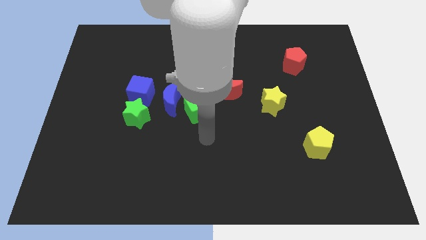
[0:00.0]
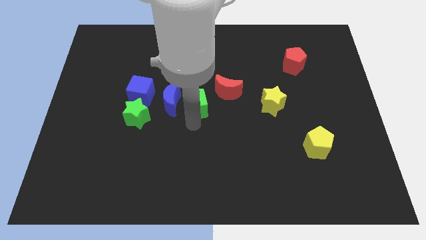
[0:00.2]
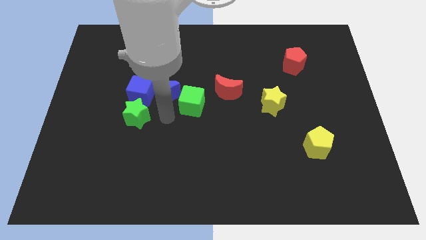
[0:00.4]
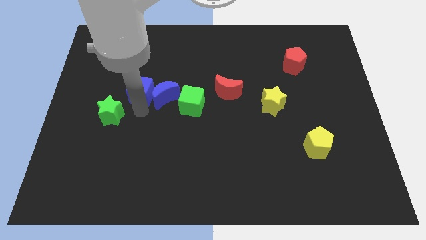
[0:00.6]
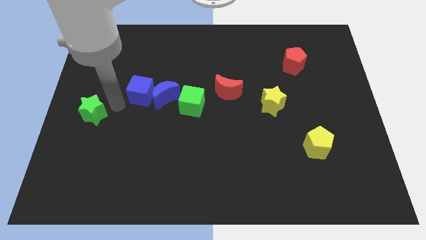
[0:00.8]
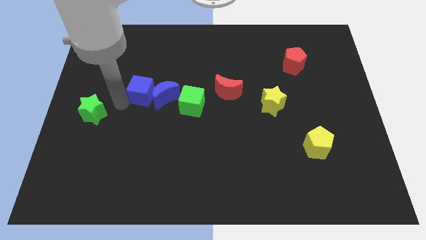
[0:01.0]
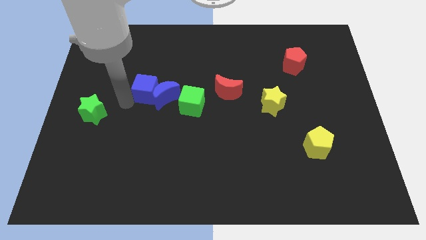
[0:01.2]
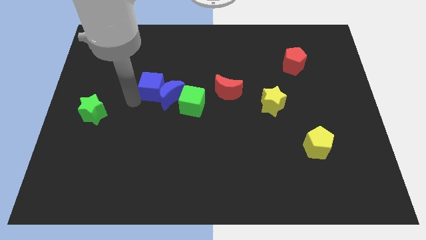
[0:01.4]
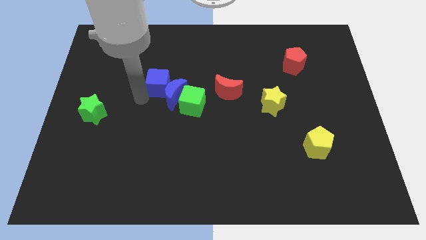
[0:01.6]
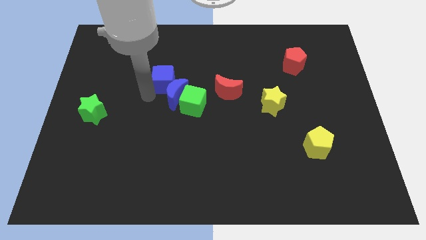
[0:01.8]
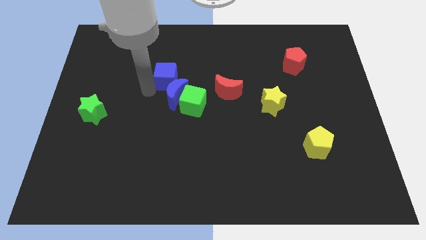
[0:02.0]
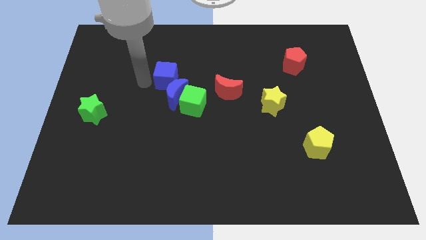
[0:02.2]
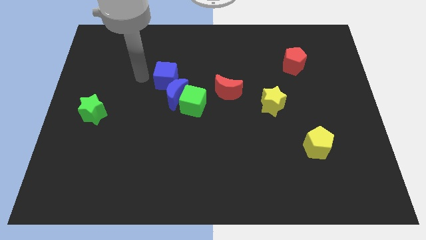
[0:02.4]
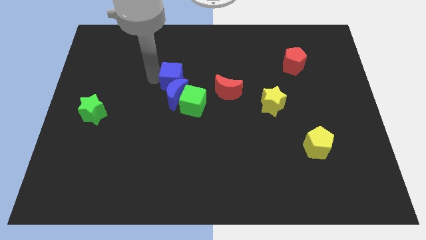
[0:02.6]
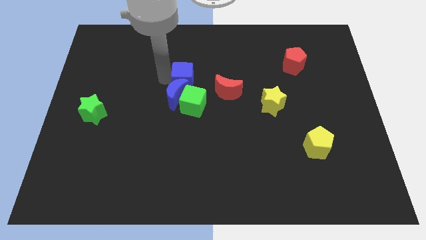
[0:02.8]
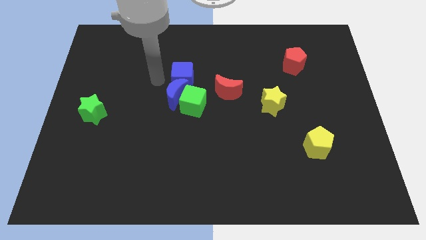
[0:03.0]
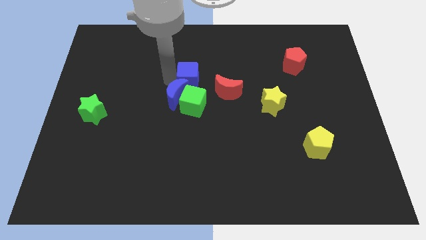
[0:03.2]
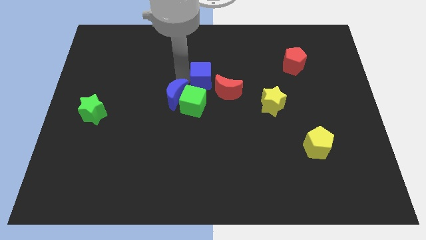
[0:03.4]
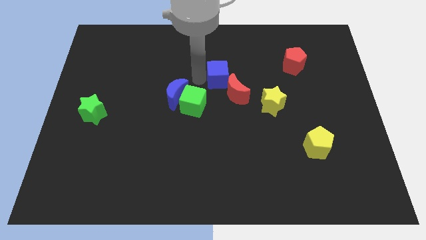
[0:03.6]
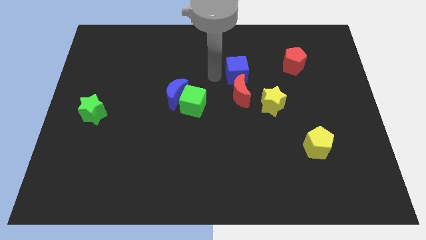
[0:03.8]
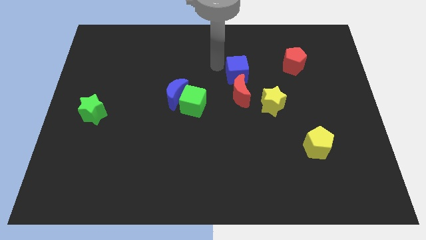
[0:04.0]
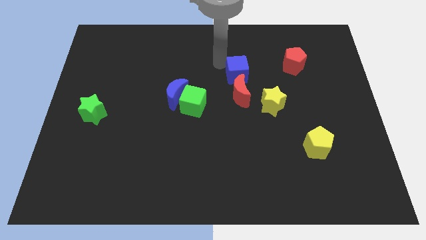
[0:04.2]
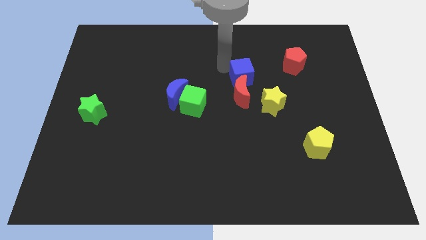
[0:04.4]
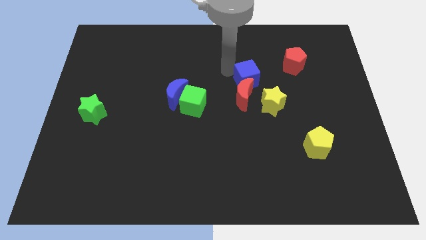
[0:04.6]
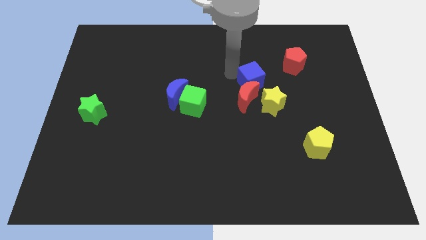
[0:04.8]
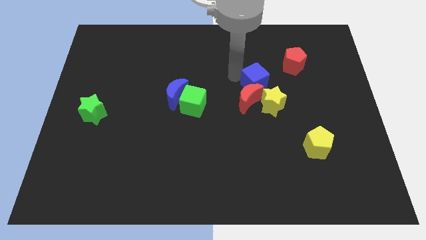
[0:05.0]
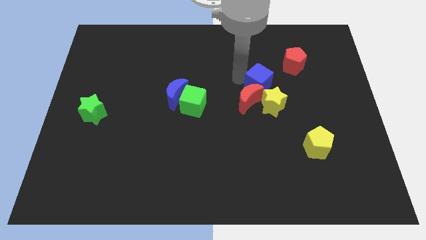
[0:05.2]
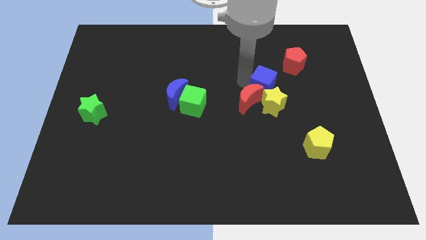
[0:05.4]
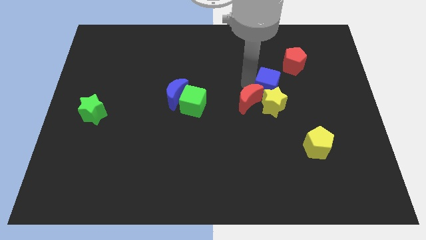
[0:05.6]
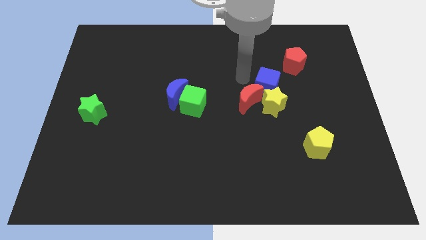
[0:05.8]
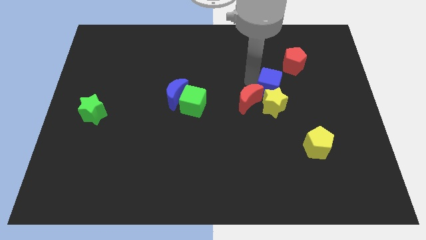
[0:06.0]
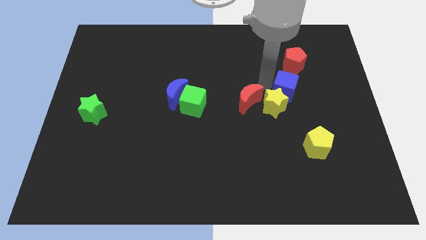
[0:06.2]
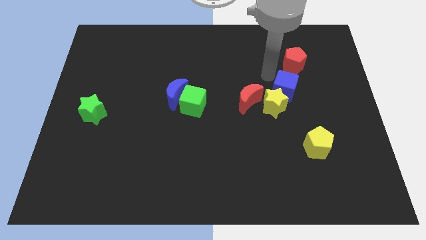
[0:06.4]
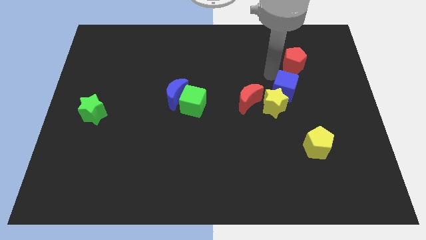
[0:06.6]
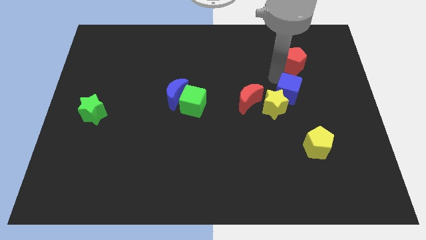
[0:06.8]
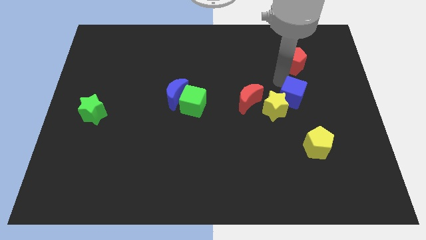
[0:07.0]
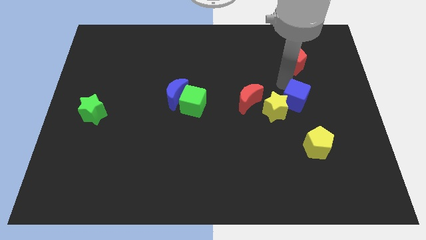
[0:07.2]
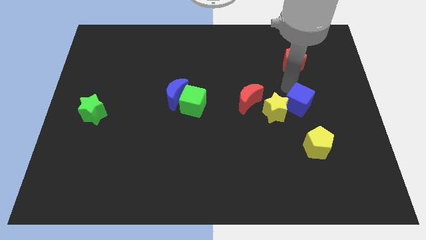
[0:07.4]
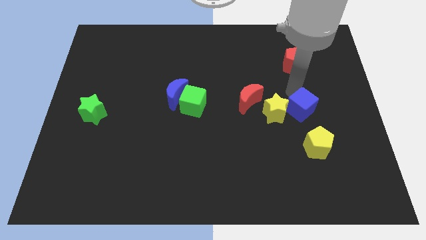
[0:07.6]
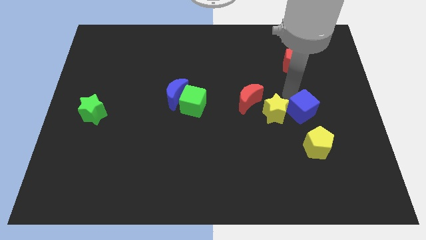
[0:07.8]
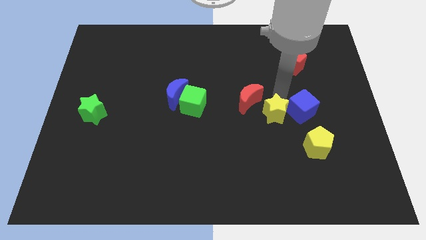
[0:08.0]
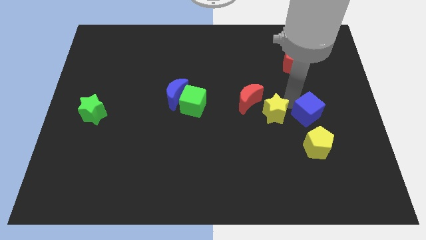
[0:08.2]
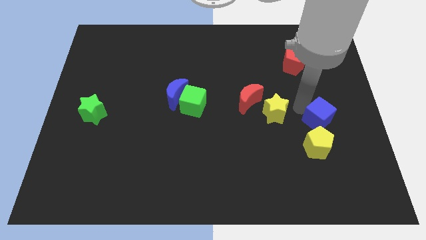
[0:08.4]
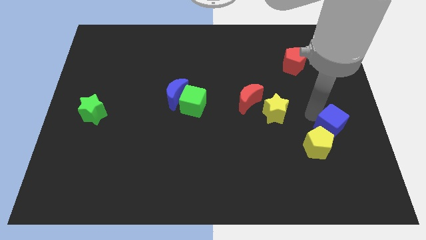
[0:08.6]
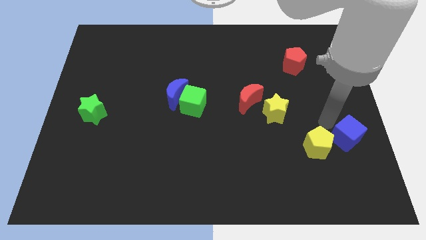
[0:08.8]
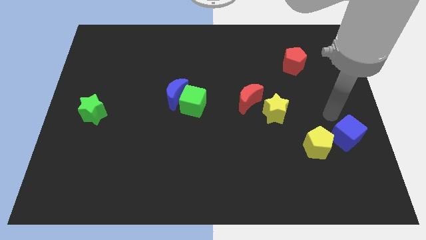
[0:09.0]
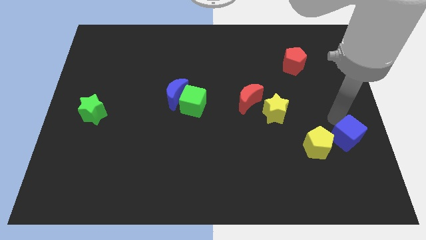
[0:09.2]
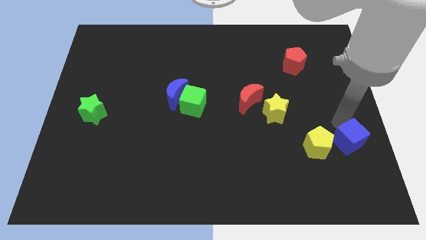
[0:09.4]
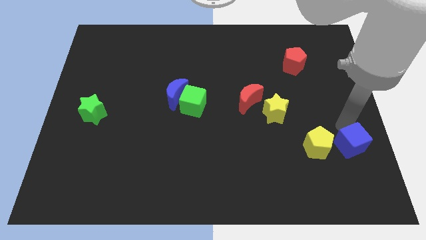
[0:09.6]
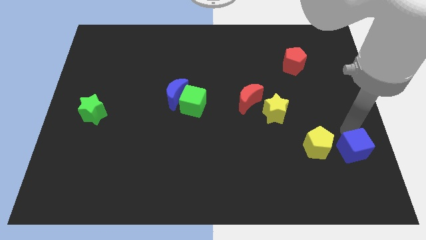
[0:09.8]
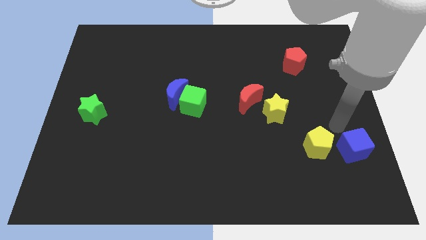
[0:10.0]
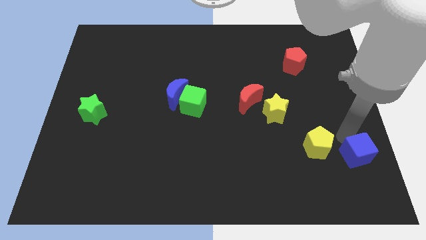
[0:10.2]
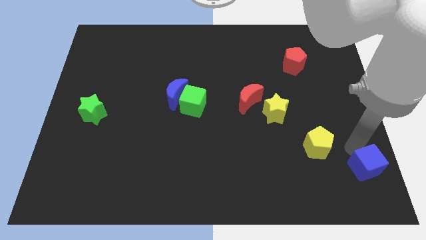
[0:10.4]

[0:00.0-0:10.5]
slide the blue cube to the bottom right of the board

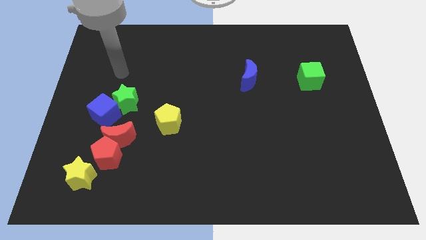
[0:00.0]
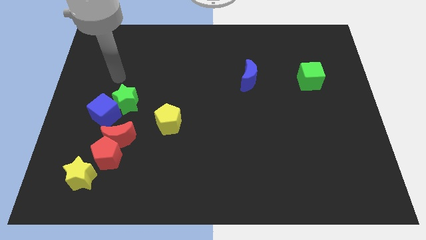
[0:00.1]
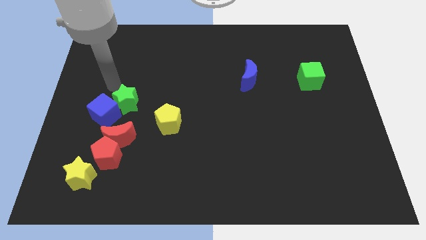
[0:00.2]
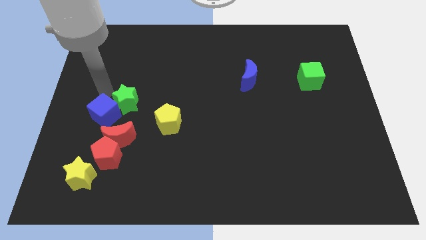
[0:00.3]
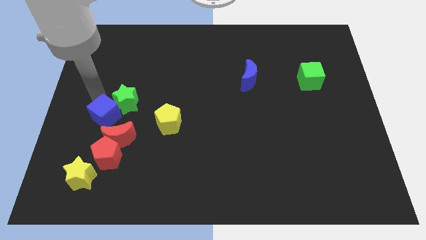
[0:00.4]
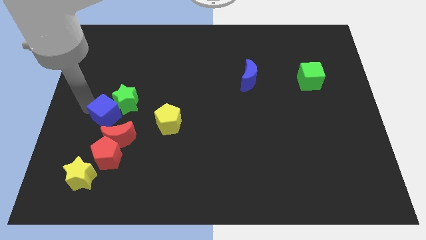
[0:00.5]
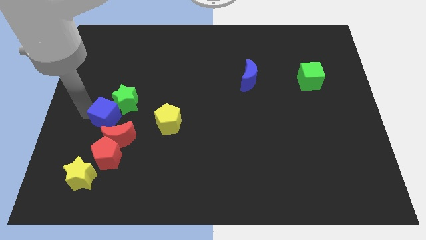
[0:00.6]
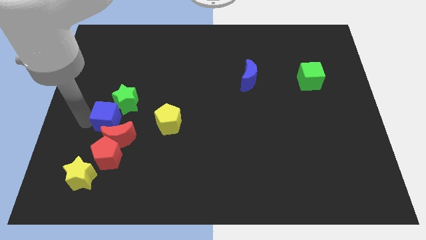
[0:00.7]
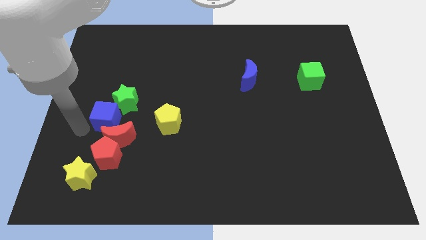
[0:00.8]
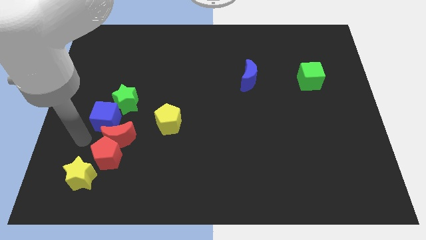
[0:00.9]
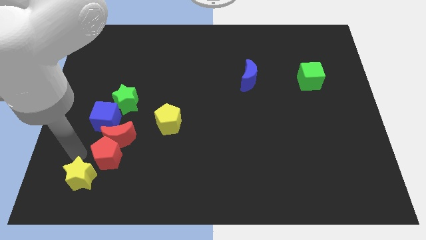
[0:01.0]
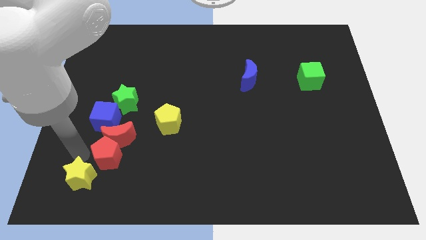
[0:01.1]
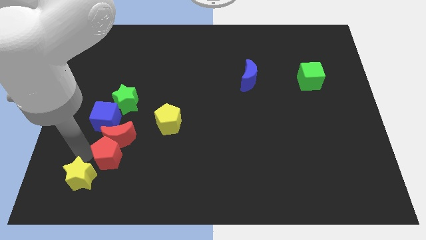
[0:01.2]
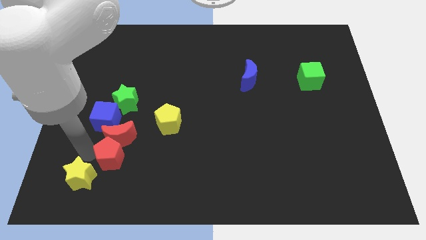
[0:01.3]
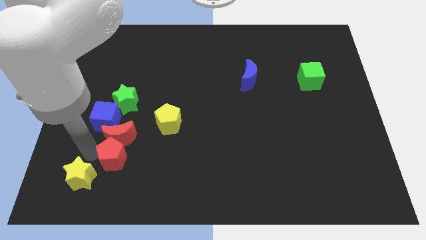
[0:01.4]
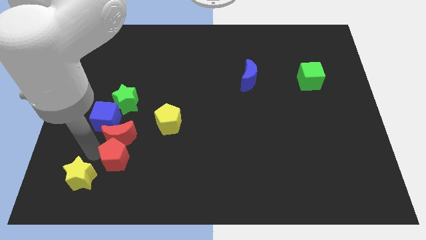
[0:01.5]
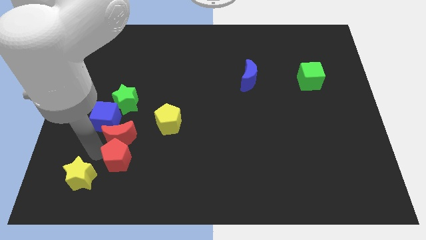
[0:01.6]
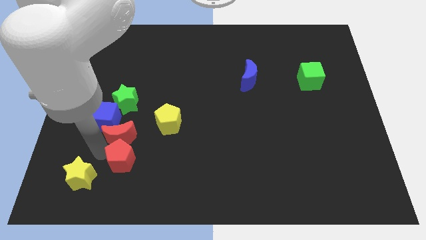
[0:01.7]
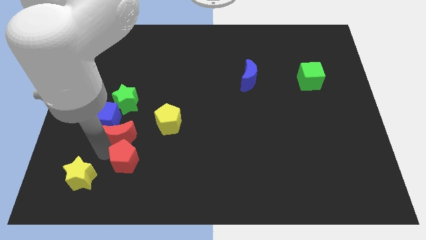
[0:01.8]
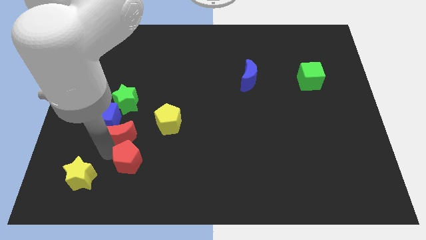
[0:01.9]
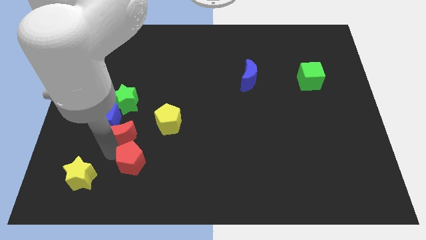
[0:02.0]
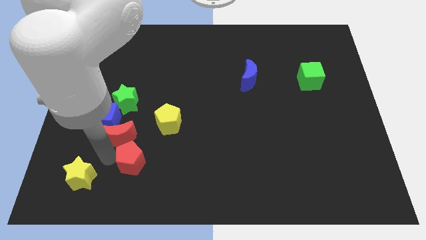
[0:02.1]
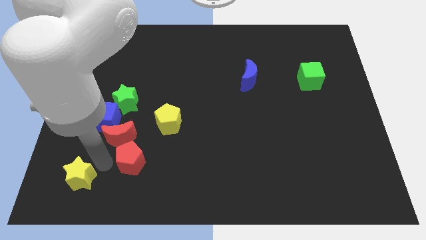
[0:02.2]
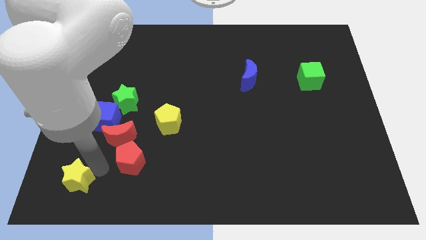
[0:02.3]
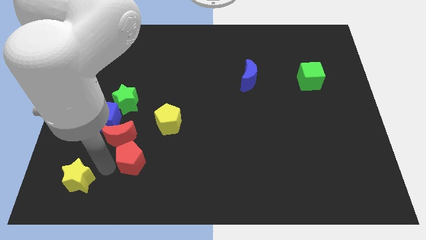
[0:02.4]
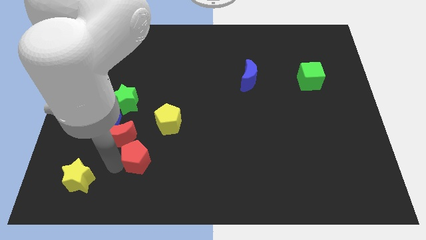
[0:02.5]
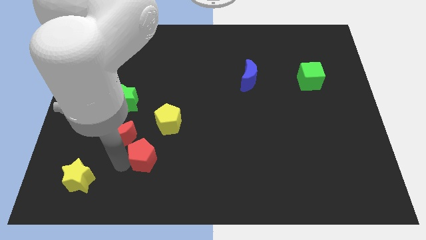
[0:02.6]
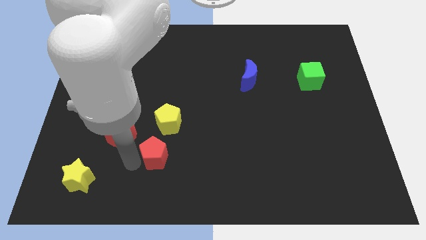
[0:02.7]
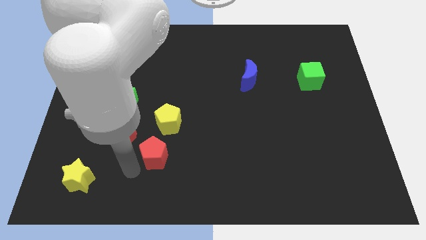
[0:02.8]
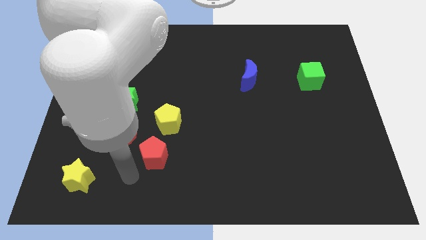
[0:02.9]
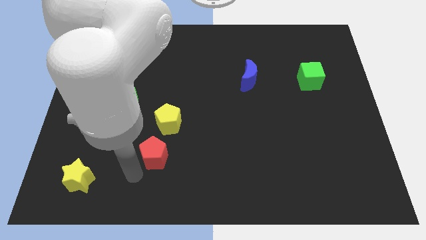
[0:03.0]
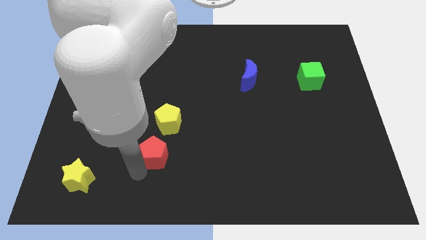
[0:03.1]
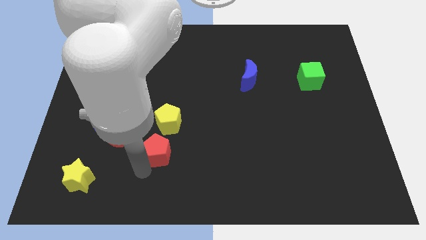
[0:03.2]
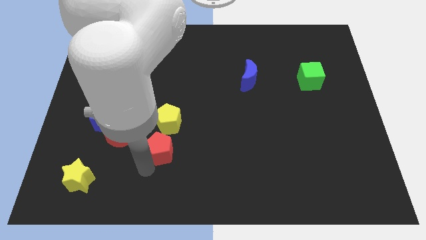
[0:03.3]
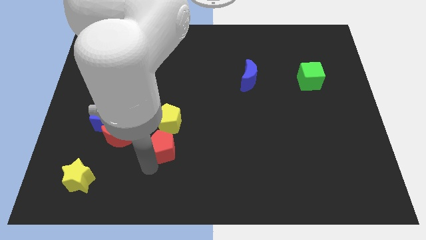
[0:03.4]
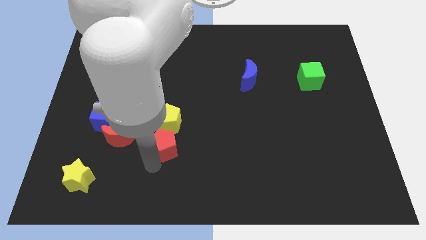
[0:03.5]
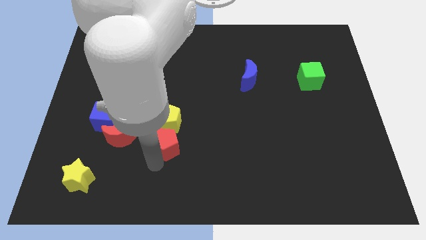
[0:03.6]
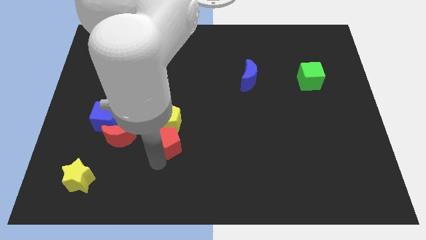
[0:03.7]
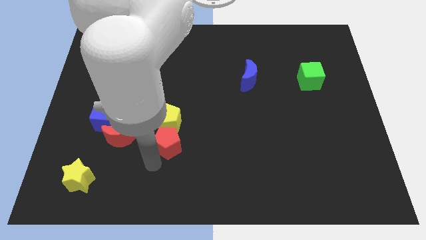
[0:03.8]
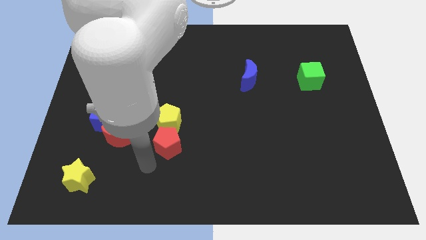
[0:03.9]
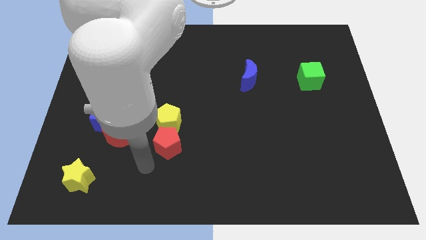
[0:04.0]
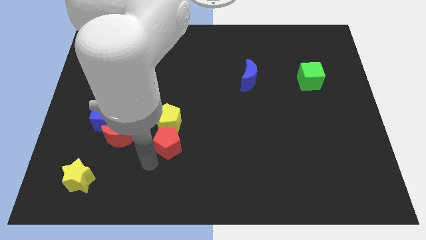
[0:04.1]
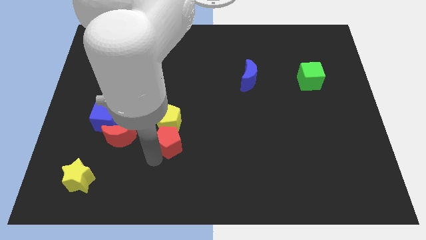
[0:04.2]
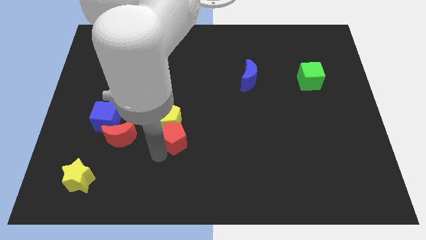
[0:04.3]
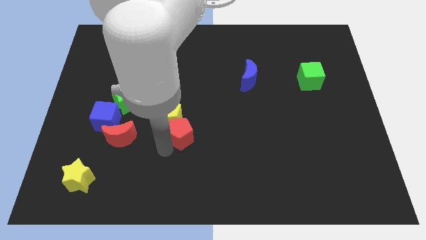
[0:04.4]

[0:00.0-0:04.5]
push the red pentagon to the center of the board
